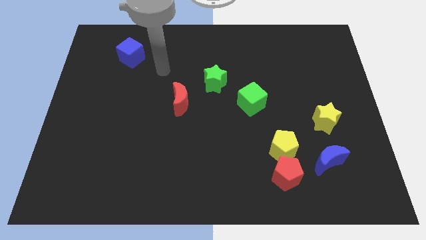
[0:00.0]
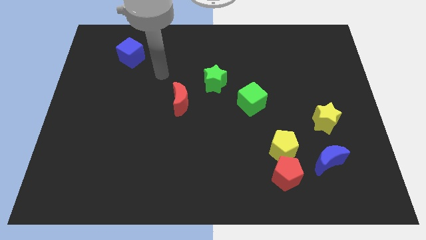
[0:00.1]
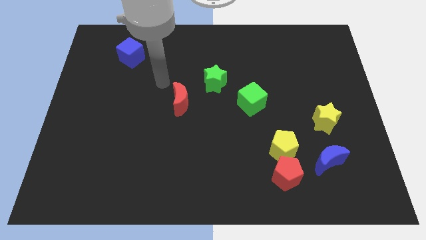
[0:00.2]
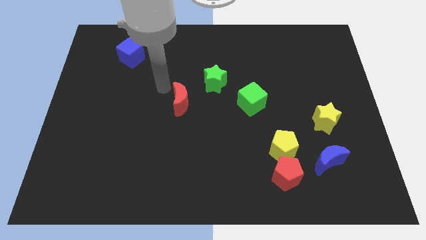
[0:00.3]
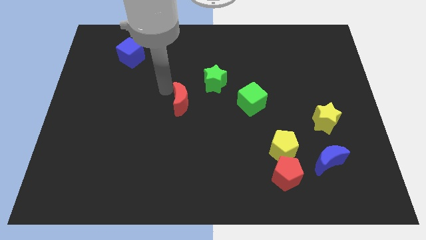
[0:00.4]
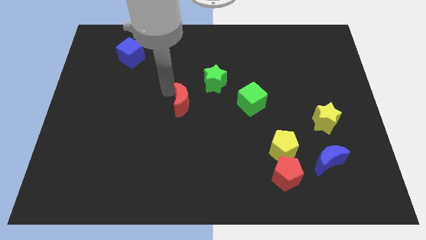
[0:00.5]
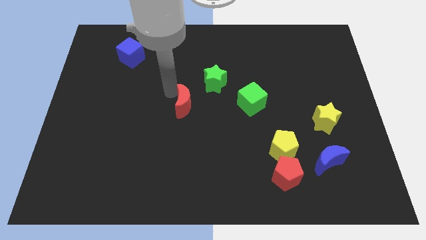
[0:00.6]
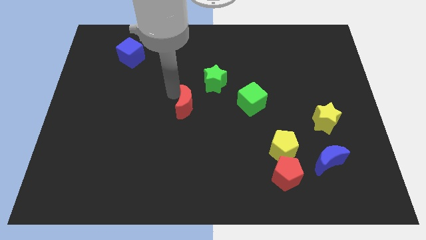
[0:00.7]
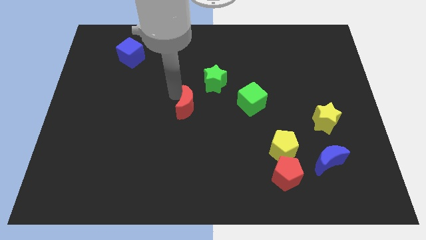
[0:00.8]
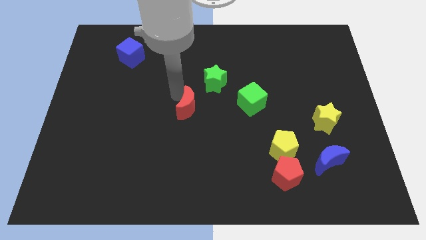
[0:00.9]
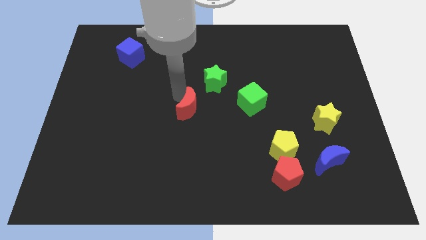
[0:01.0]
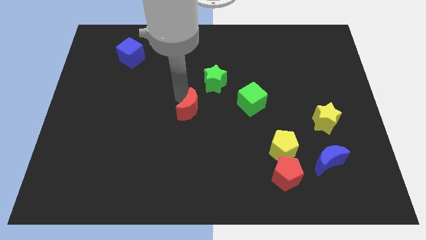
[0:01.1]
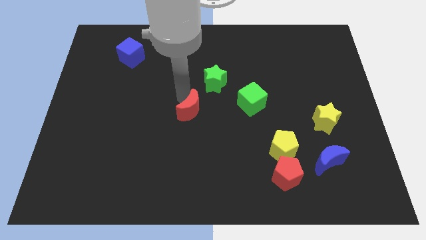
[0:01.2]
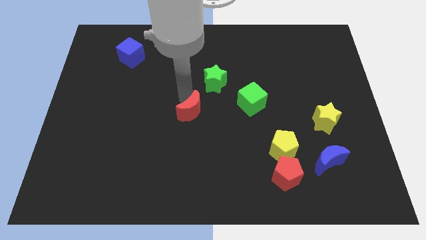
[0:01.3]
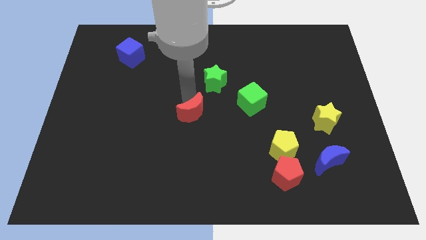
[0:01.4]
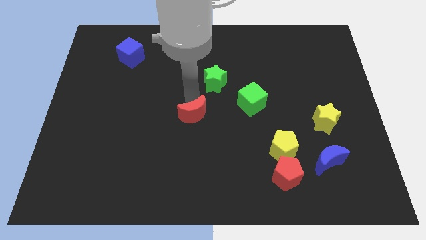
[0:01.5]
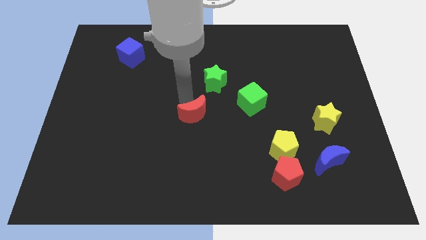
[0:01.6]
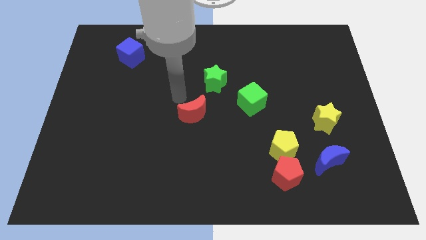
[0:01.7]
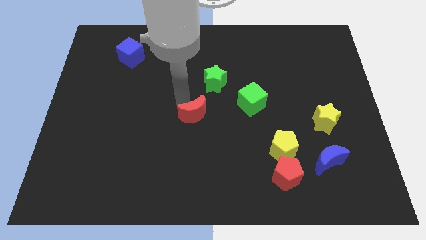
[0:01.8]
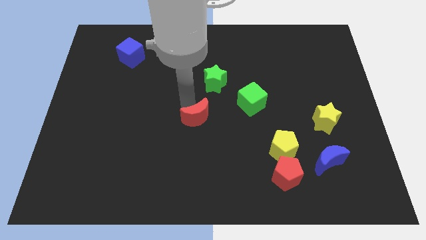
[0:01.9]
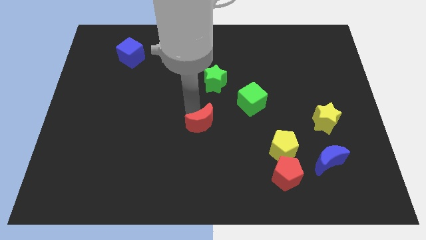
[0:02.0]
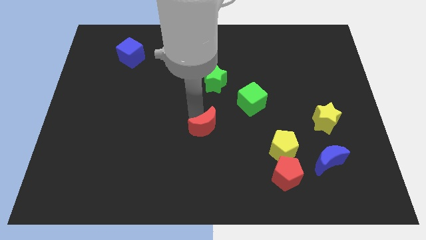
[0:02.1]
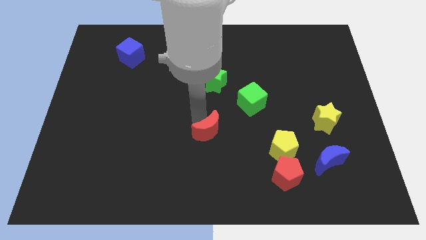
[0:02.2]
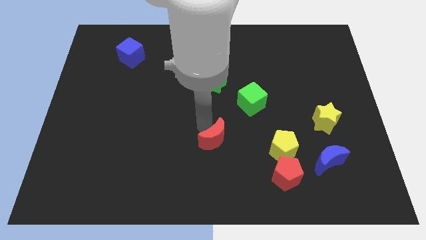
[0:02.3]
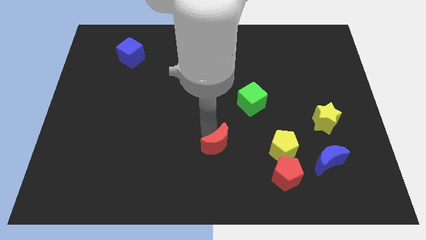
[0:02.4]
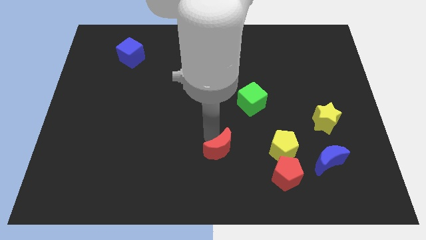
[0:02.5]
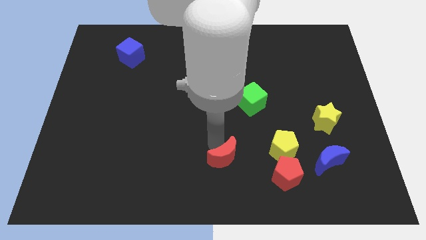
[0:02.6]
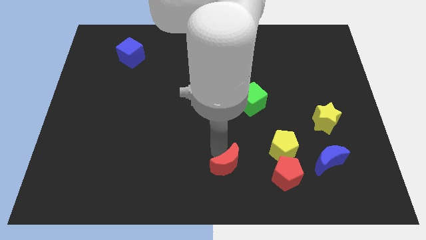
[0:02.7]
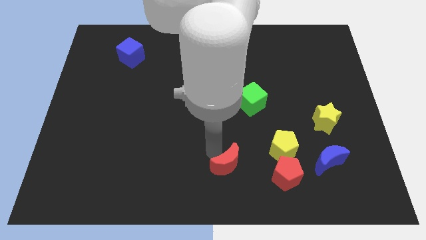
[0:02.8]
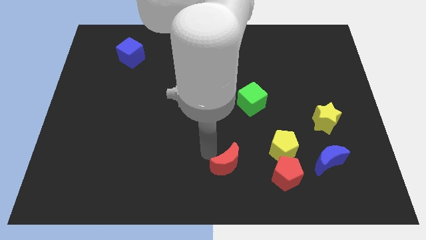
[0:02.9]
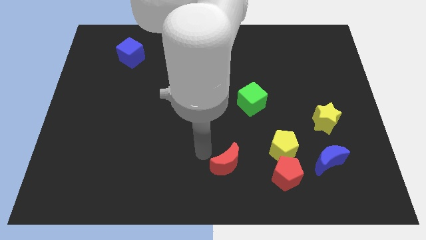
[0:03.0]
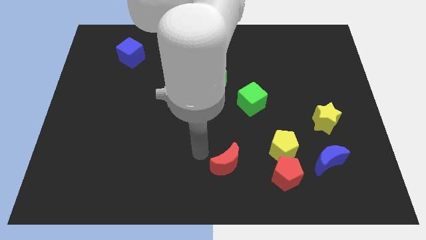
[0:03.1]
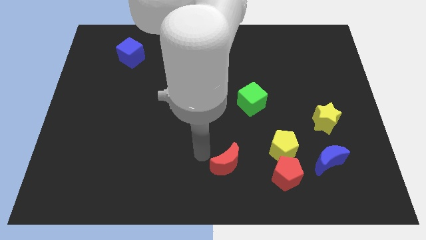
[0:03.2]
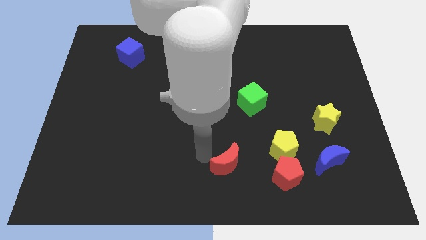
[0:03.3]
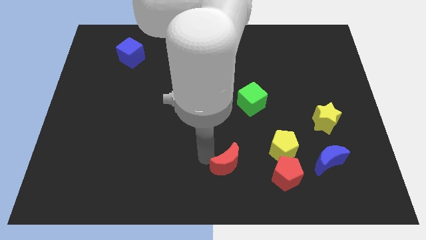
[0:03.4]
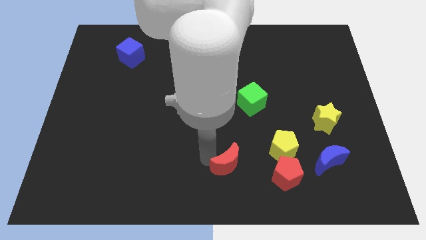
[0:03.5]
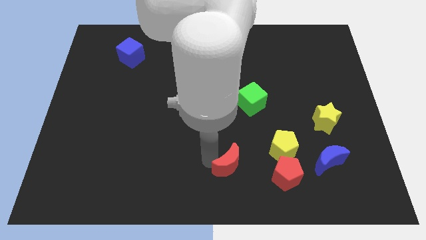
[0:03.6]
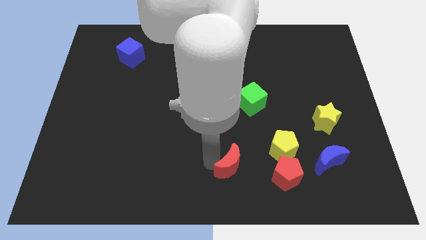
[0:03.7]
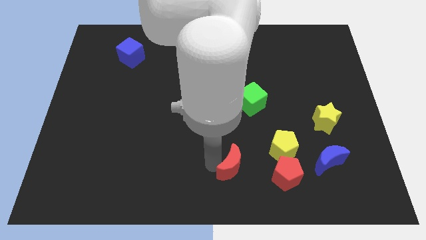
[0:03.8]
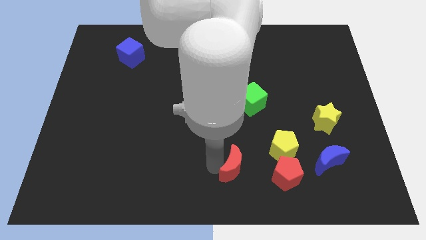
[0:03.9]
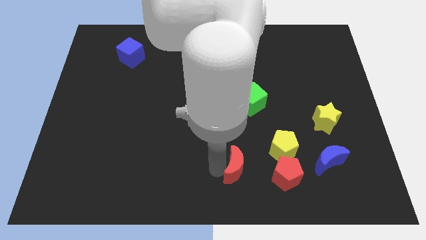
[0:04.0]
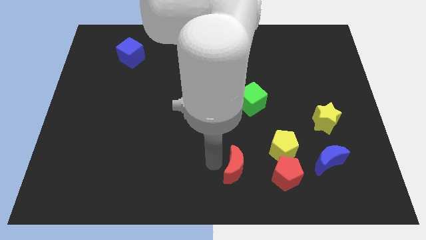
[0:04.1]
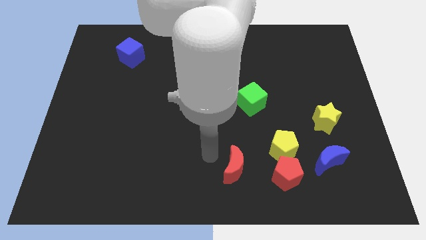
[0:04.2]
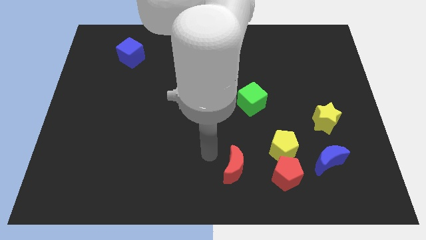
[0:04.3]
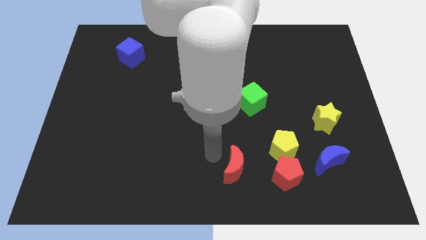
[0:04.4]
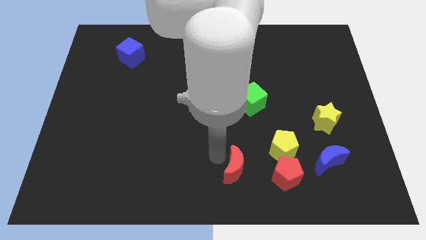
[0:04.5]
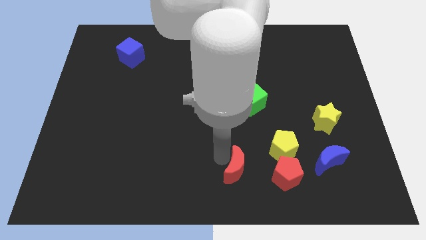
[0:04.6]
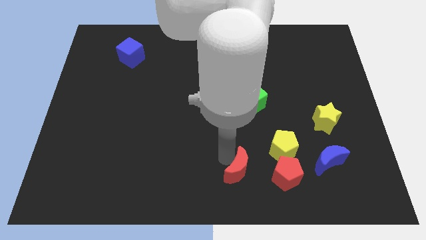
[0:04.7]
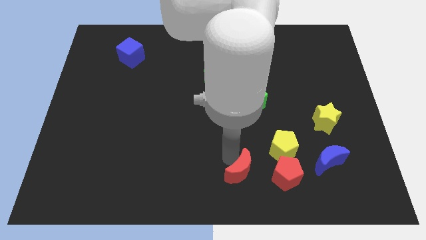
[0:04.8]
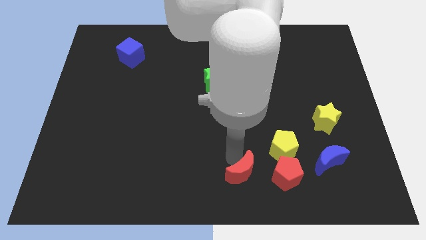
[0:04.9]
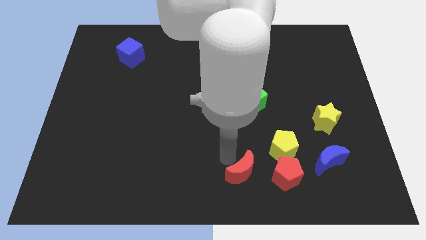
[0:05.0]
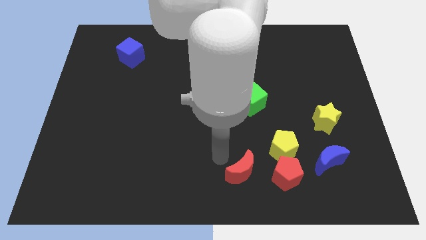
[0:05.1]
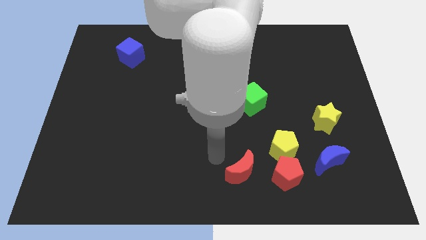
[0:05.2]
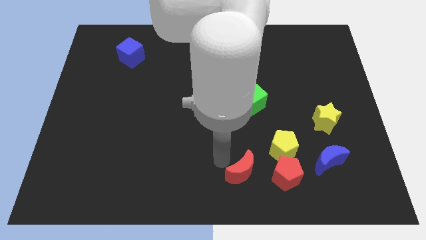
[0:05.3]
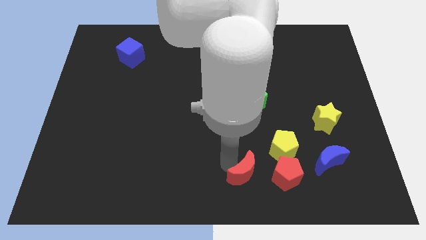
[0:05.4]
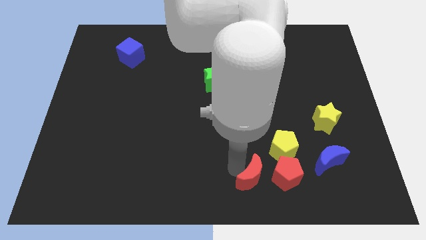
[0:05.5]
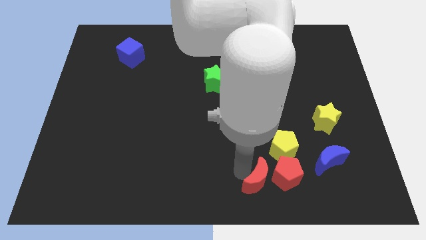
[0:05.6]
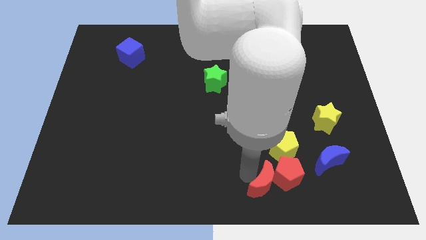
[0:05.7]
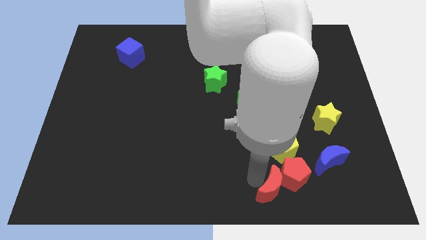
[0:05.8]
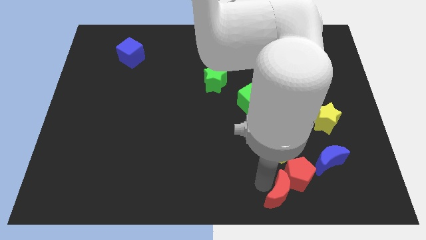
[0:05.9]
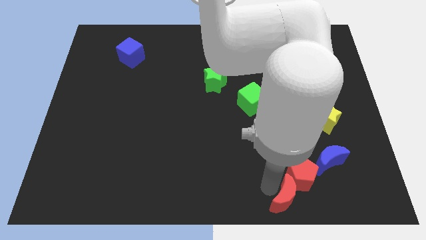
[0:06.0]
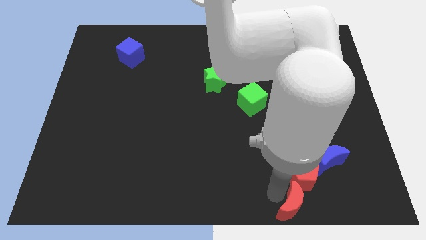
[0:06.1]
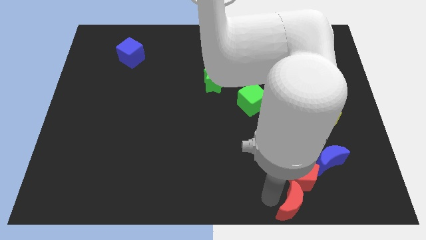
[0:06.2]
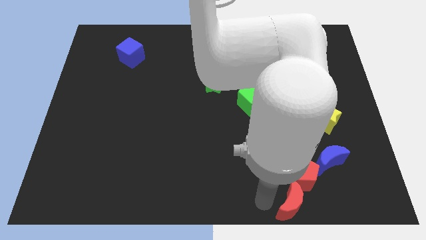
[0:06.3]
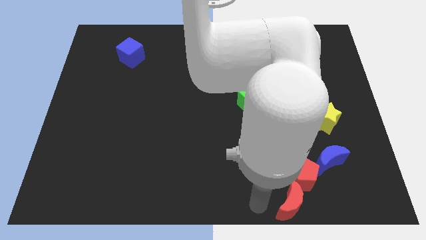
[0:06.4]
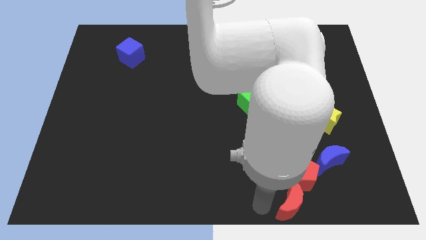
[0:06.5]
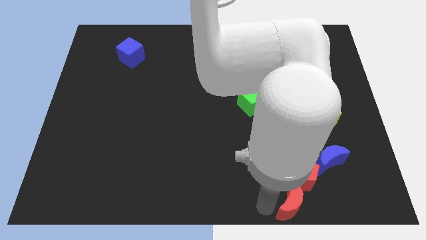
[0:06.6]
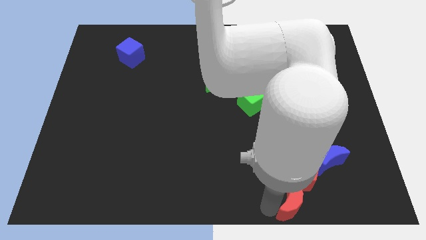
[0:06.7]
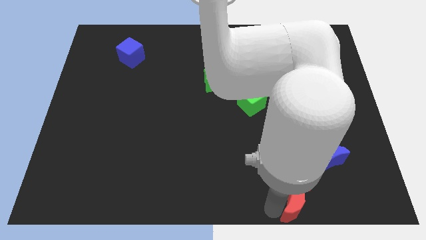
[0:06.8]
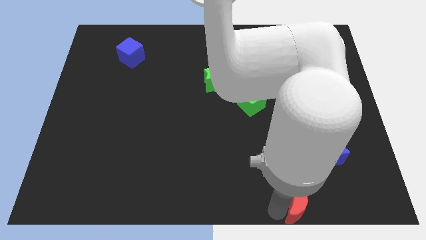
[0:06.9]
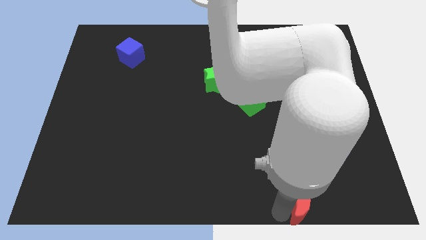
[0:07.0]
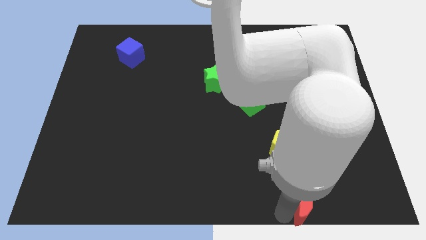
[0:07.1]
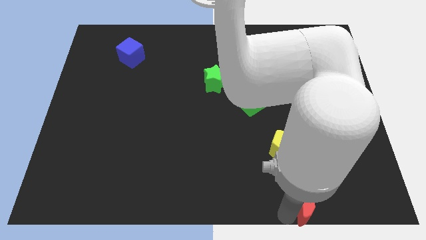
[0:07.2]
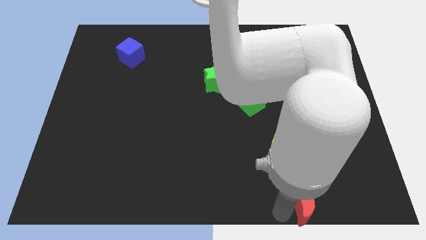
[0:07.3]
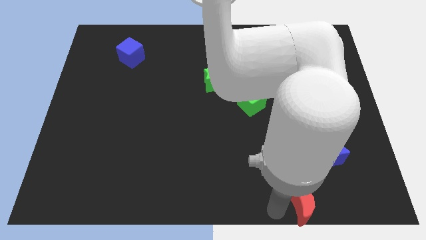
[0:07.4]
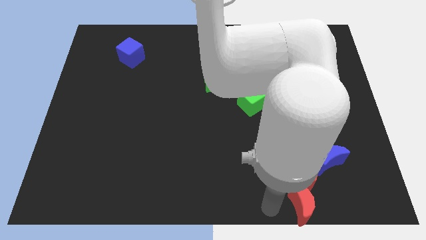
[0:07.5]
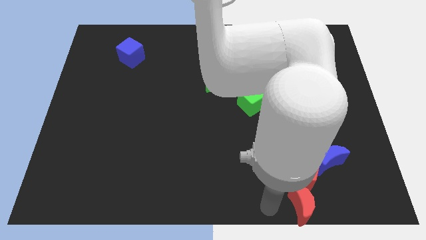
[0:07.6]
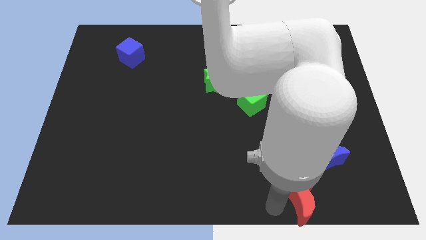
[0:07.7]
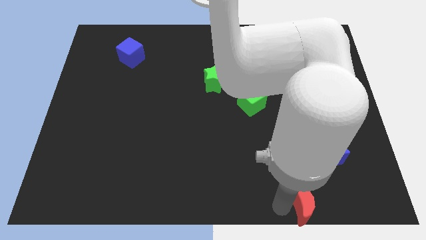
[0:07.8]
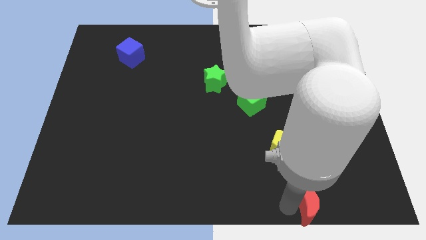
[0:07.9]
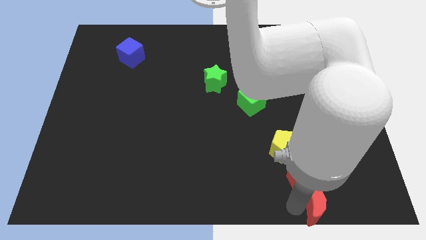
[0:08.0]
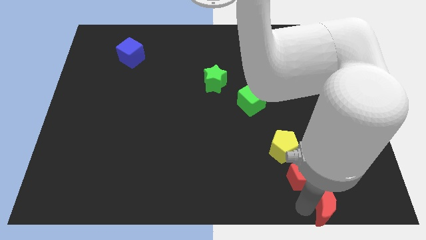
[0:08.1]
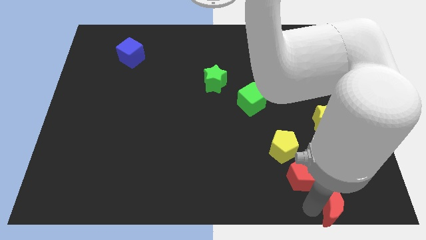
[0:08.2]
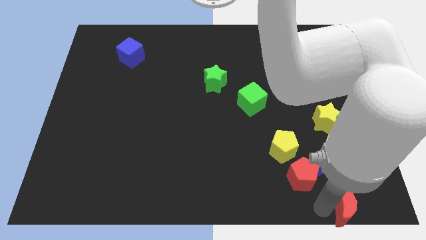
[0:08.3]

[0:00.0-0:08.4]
put the red moon to the lower right corner
